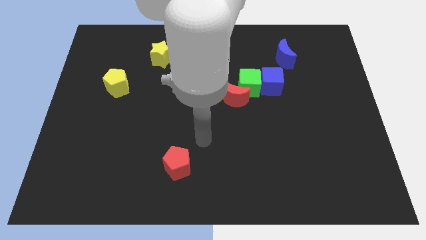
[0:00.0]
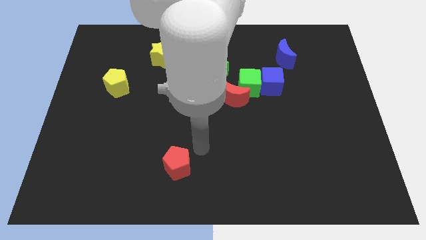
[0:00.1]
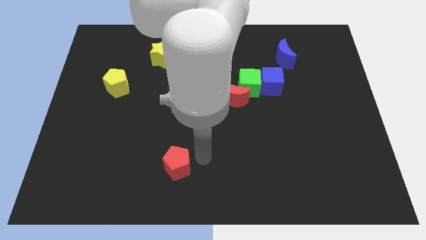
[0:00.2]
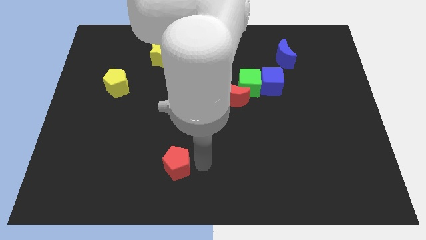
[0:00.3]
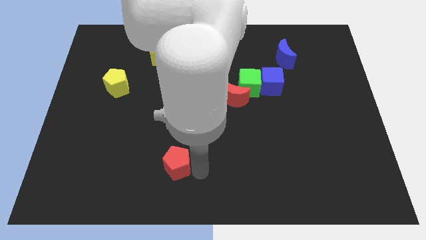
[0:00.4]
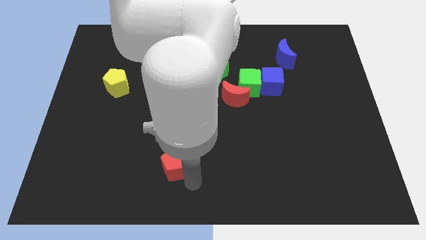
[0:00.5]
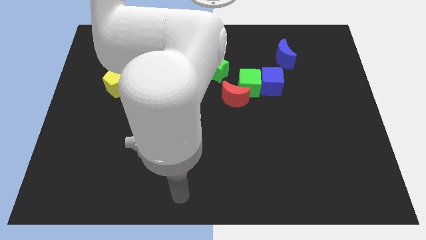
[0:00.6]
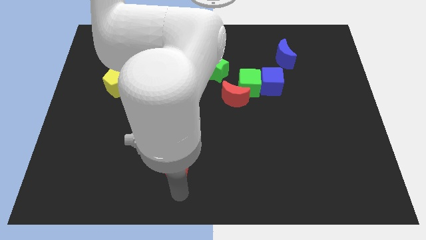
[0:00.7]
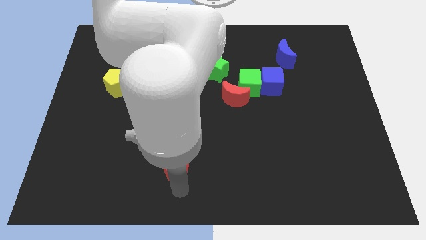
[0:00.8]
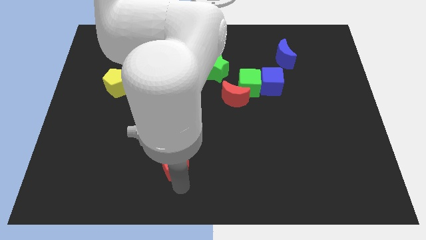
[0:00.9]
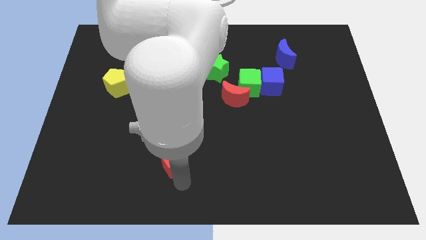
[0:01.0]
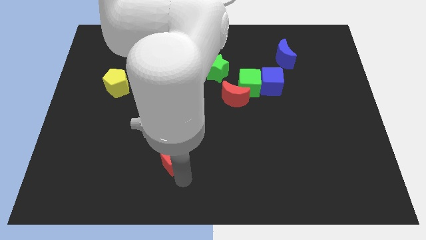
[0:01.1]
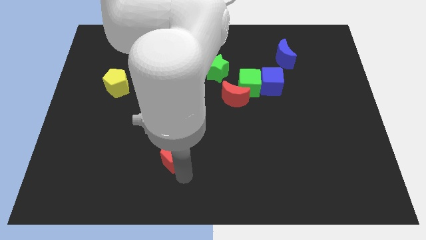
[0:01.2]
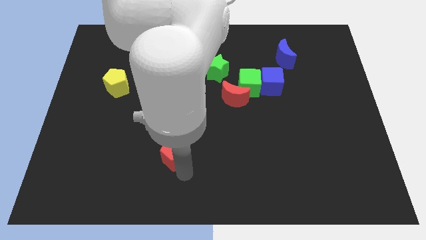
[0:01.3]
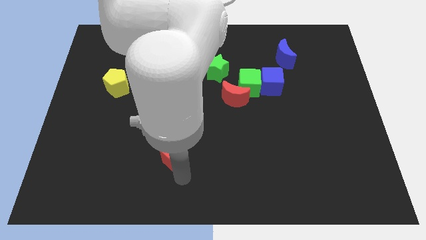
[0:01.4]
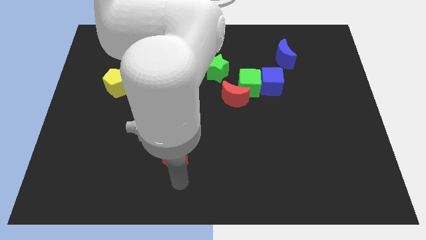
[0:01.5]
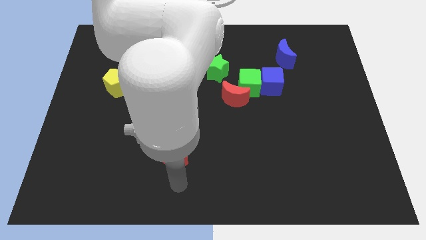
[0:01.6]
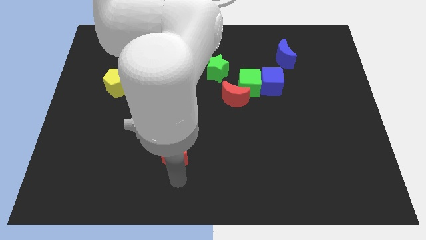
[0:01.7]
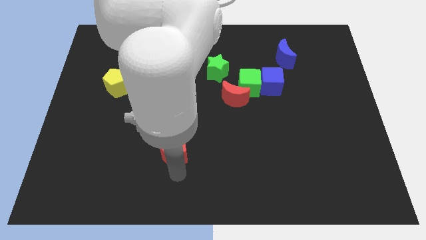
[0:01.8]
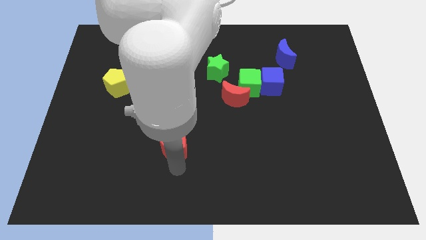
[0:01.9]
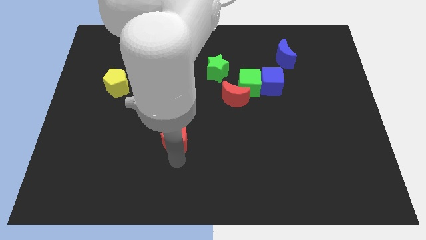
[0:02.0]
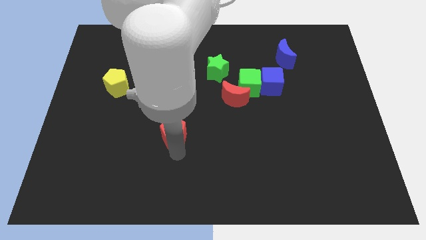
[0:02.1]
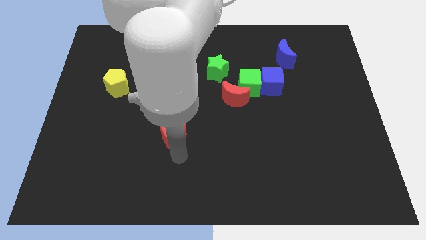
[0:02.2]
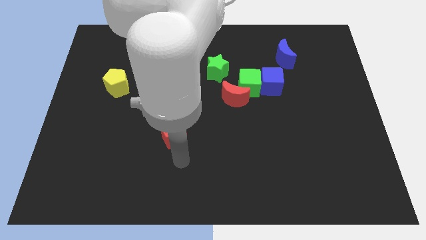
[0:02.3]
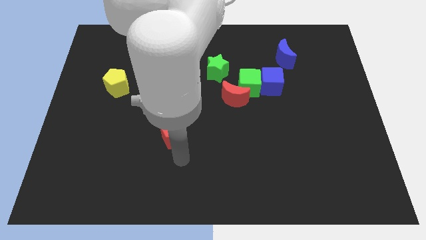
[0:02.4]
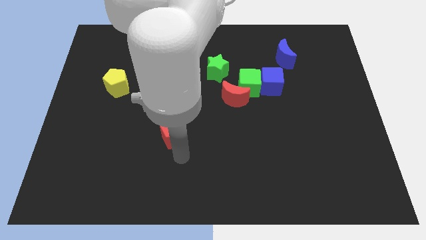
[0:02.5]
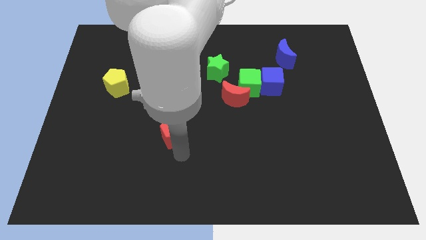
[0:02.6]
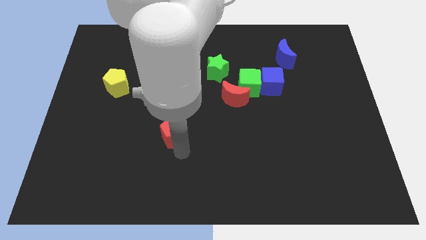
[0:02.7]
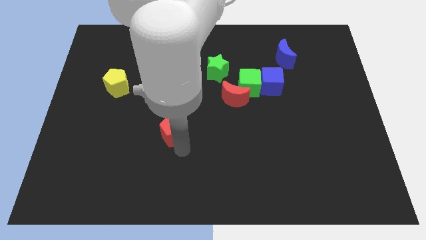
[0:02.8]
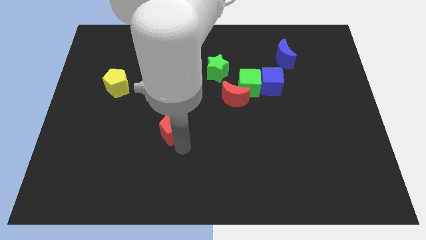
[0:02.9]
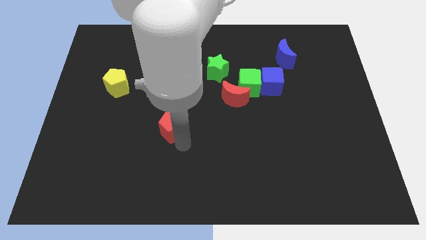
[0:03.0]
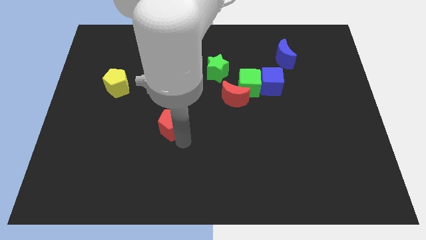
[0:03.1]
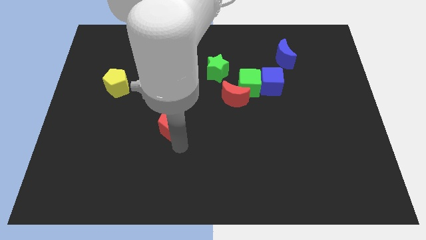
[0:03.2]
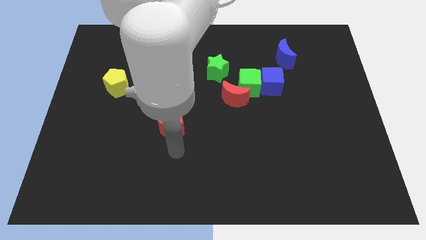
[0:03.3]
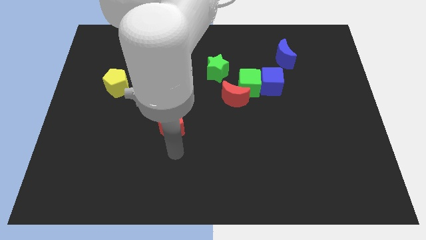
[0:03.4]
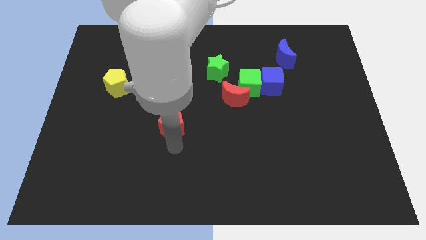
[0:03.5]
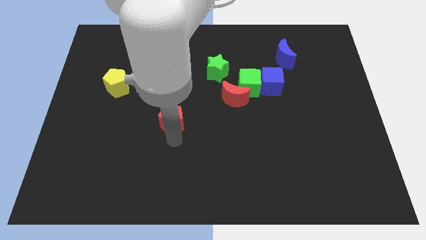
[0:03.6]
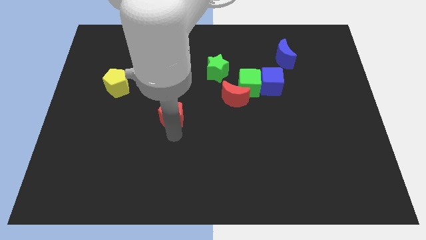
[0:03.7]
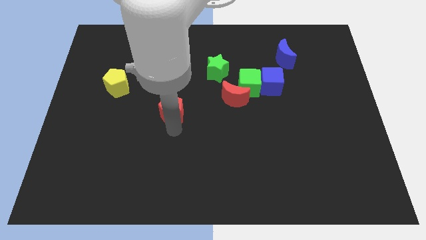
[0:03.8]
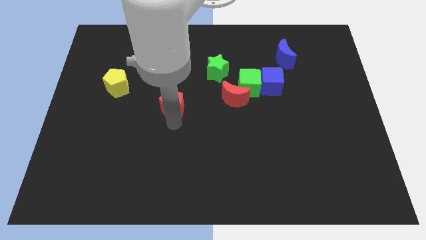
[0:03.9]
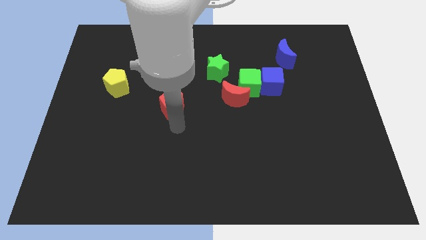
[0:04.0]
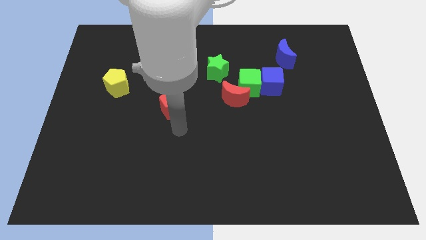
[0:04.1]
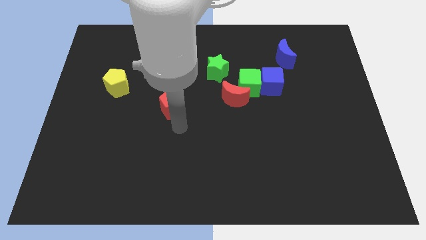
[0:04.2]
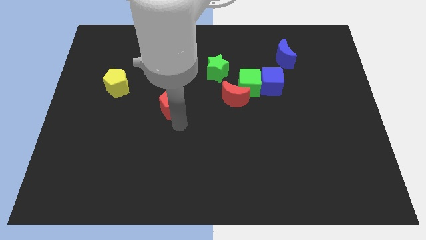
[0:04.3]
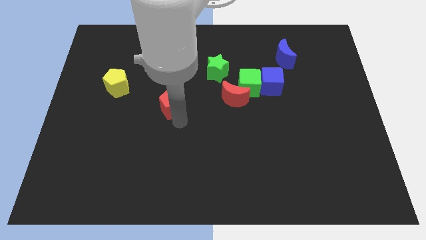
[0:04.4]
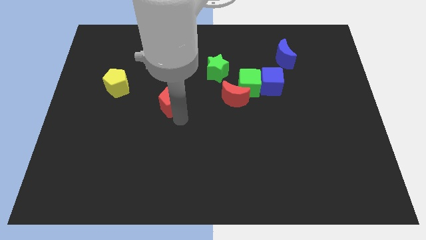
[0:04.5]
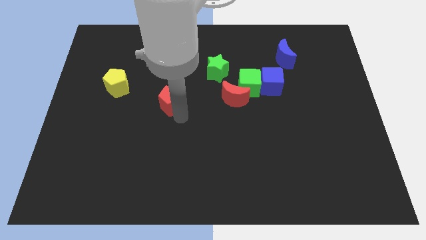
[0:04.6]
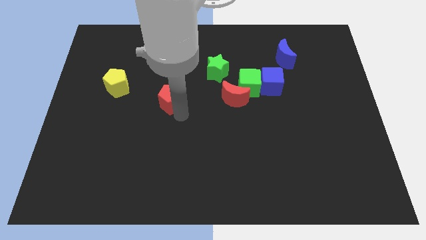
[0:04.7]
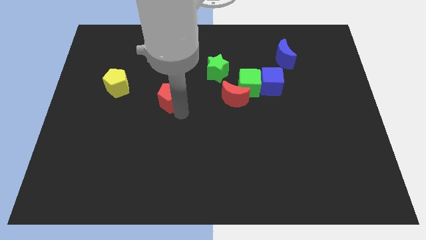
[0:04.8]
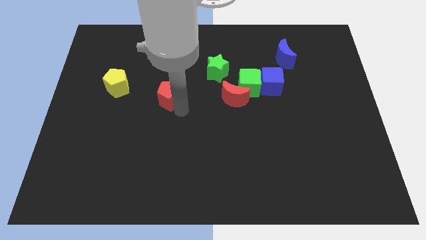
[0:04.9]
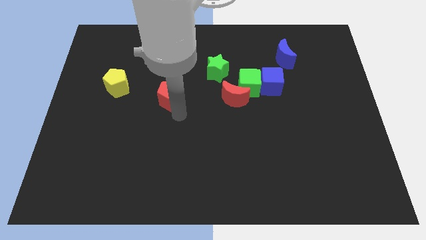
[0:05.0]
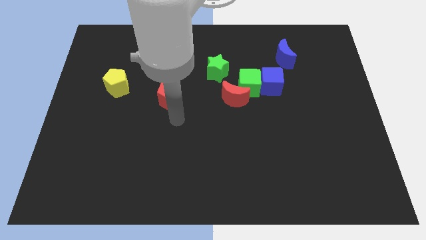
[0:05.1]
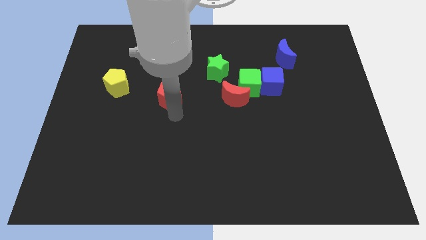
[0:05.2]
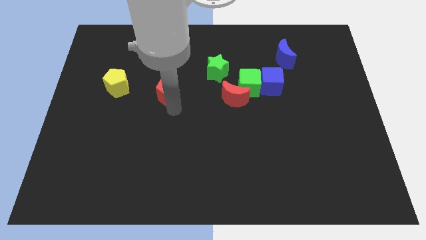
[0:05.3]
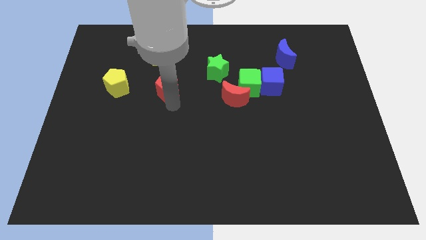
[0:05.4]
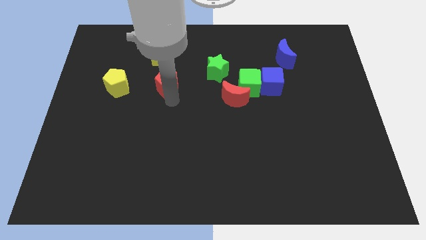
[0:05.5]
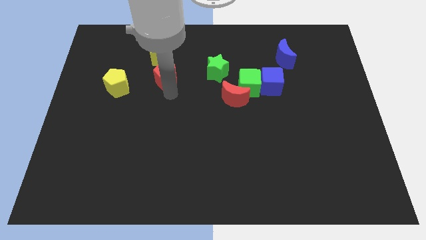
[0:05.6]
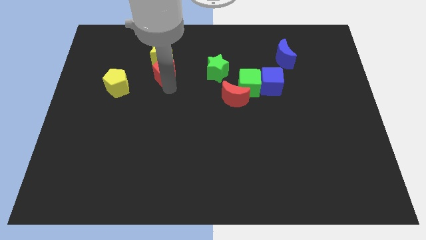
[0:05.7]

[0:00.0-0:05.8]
slide the red pentagon towards the yellow star

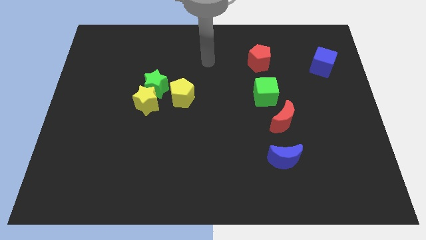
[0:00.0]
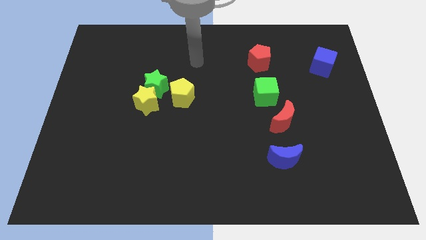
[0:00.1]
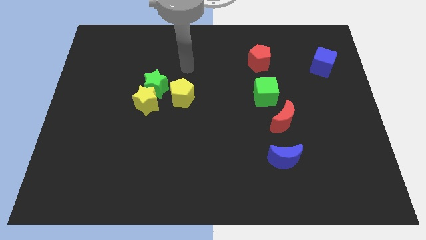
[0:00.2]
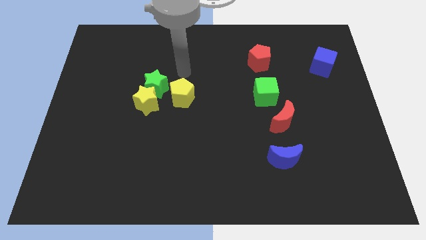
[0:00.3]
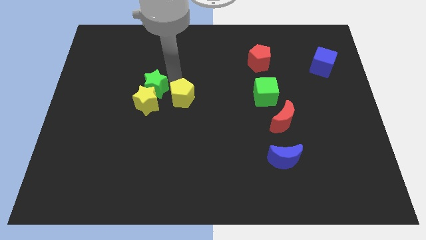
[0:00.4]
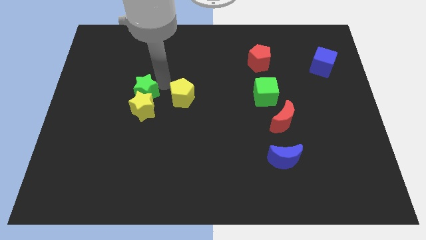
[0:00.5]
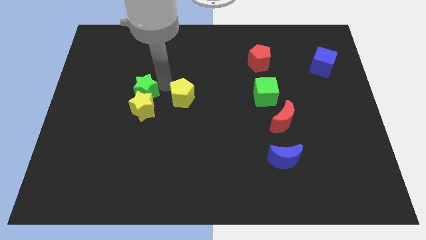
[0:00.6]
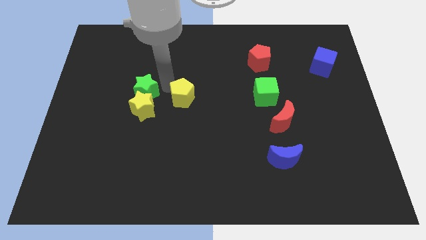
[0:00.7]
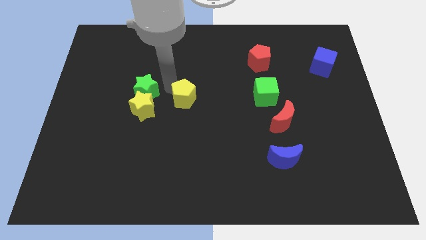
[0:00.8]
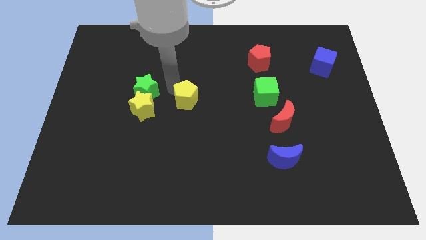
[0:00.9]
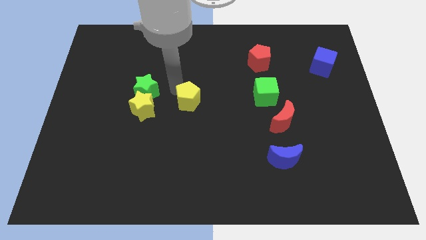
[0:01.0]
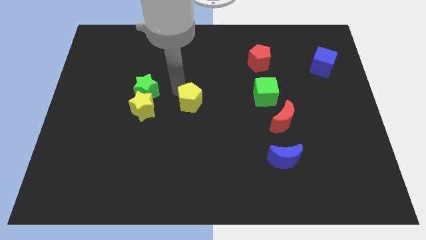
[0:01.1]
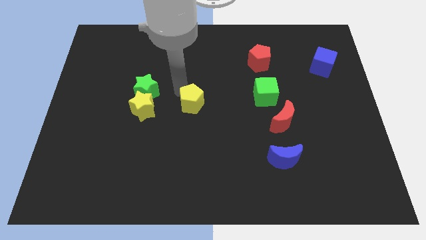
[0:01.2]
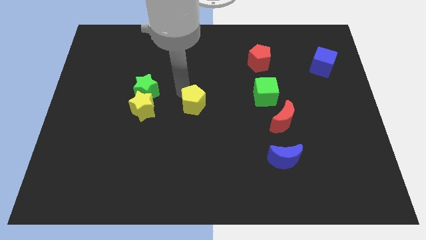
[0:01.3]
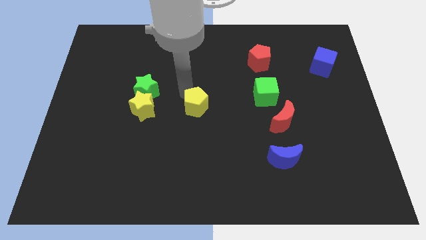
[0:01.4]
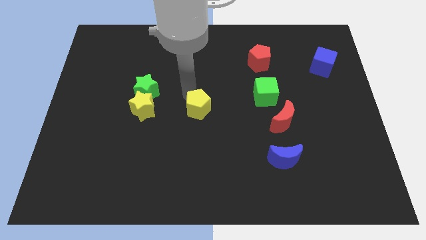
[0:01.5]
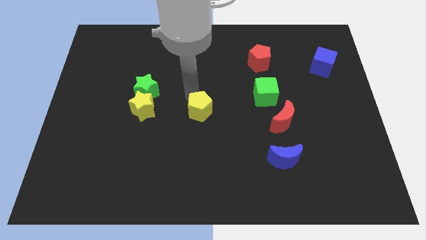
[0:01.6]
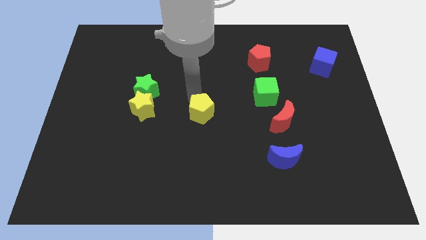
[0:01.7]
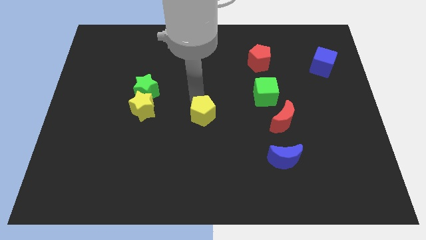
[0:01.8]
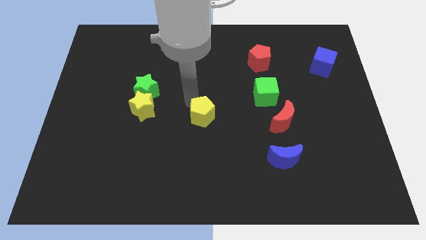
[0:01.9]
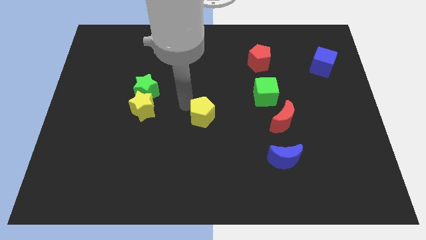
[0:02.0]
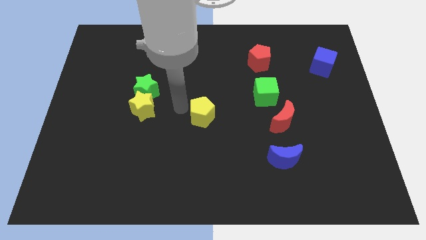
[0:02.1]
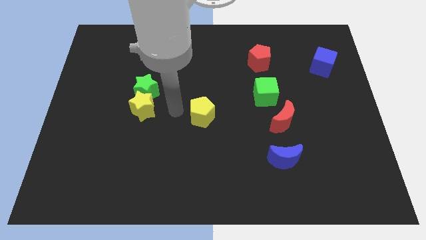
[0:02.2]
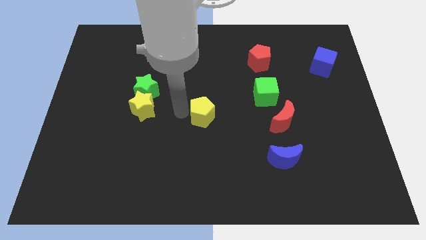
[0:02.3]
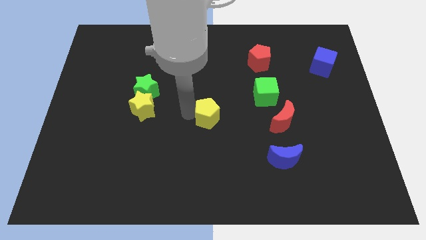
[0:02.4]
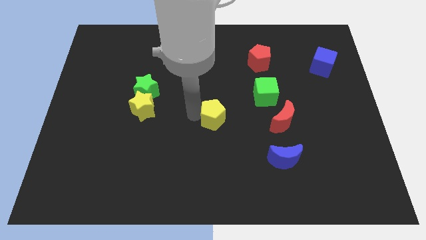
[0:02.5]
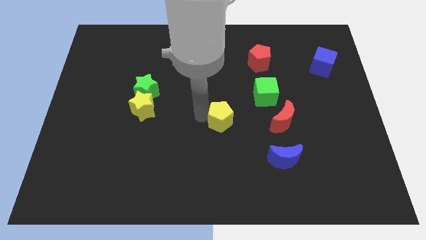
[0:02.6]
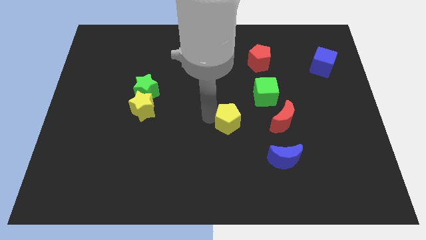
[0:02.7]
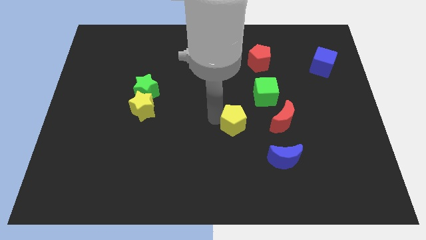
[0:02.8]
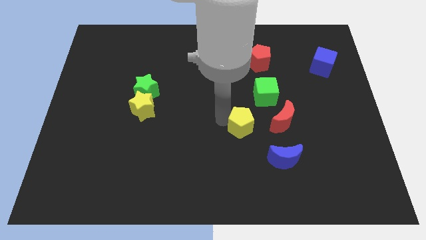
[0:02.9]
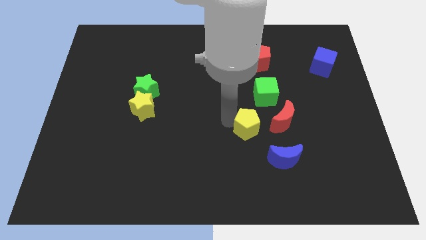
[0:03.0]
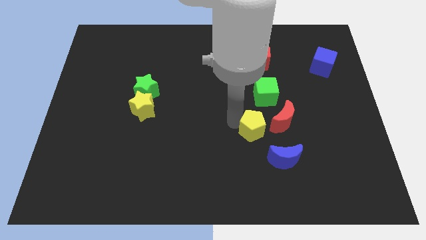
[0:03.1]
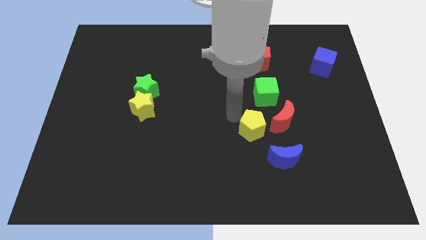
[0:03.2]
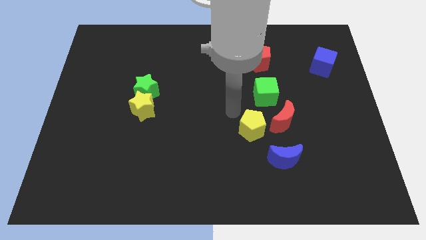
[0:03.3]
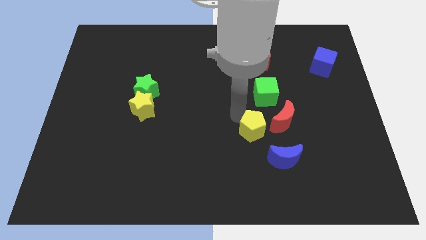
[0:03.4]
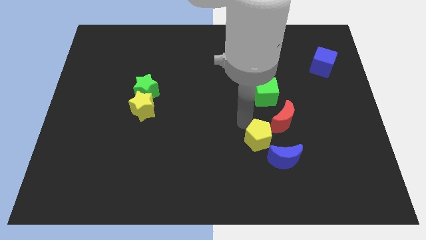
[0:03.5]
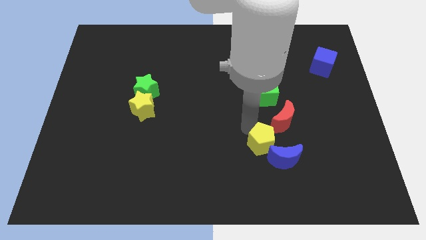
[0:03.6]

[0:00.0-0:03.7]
put the yellow pentagon next to the blue moon
